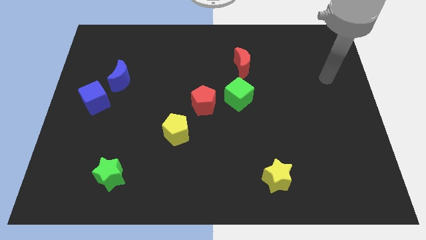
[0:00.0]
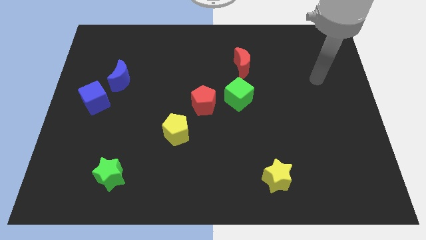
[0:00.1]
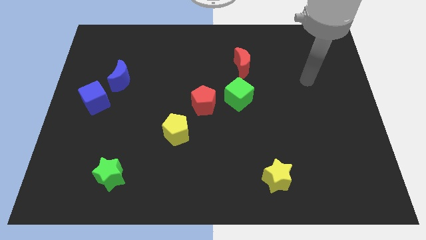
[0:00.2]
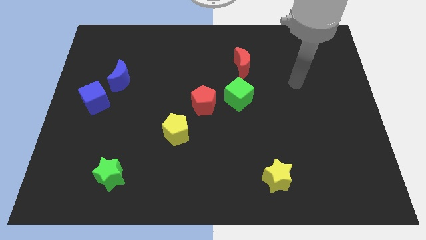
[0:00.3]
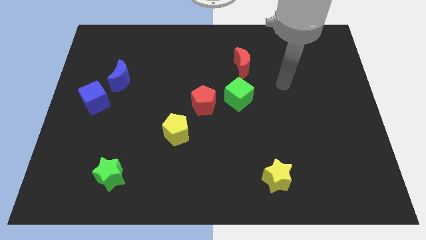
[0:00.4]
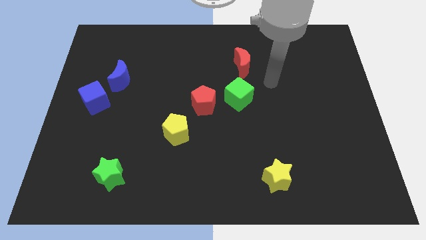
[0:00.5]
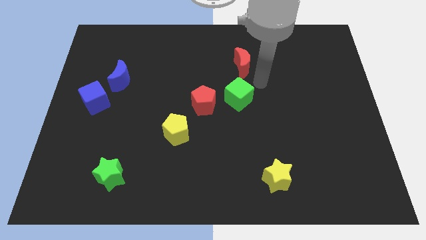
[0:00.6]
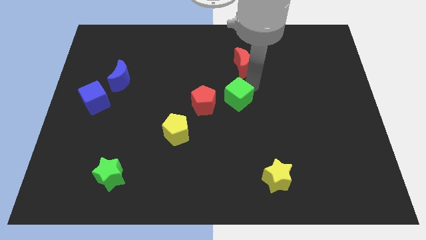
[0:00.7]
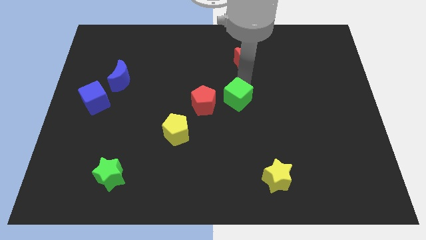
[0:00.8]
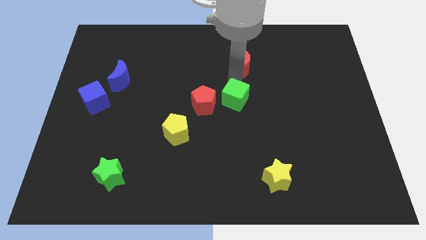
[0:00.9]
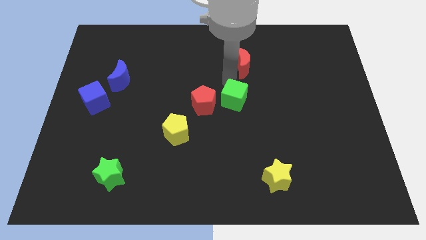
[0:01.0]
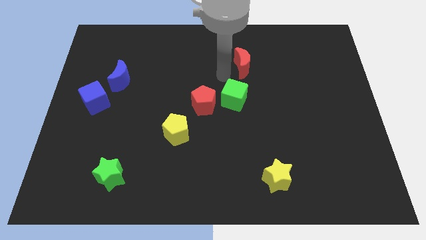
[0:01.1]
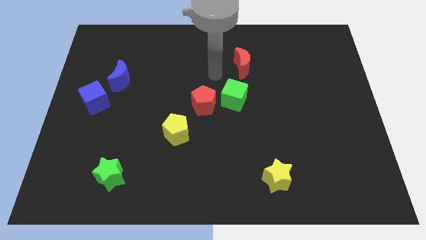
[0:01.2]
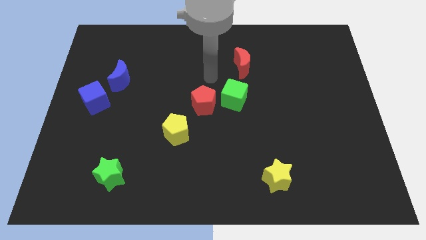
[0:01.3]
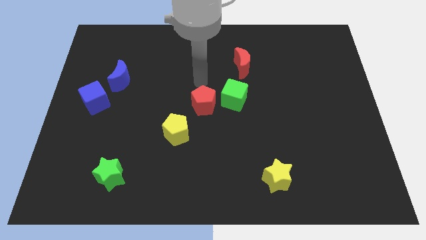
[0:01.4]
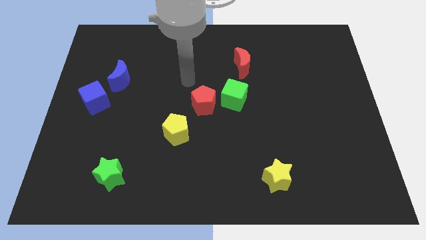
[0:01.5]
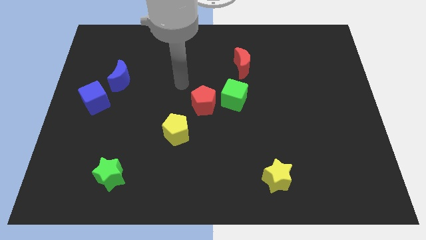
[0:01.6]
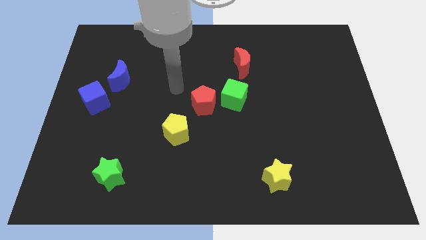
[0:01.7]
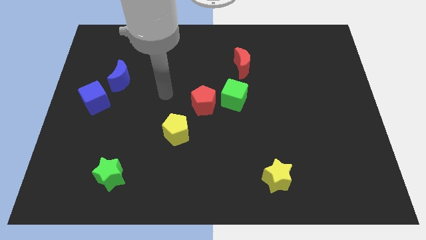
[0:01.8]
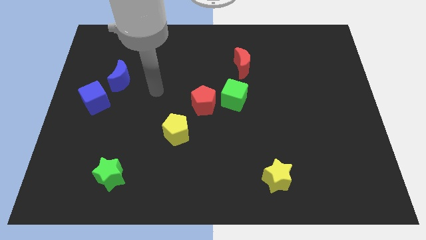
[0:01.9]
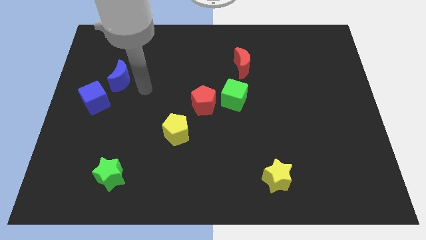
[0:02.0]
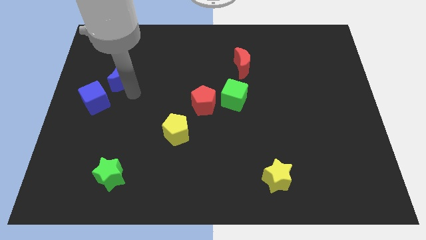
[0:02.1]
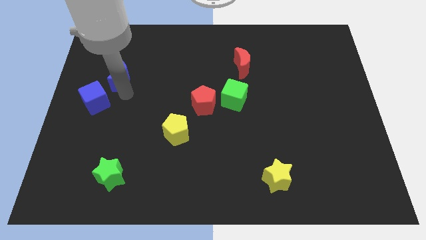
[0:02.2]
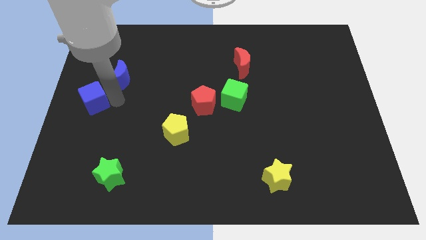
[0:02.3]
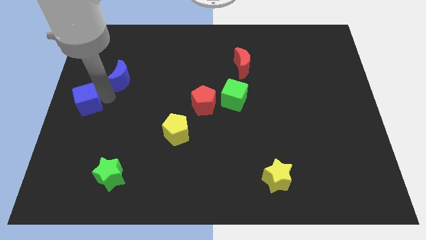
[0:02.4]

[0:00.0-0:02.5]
move the blue moon away from the blue cube

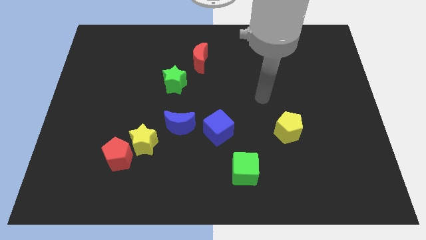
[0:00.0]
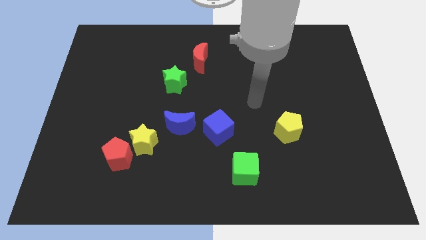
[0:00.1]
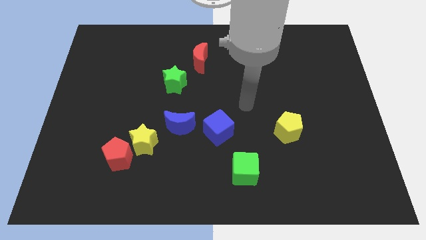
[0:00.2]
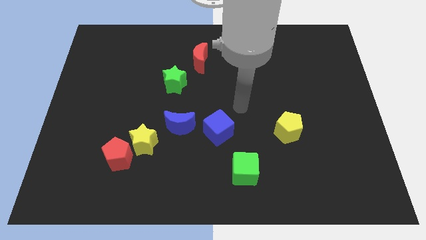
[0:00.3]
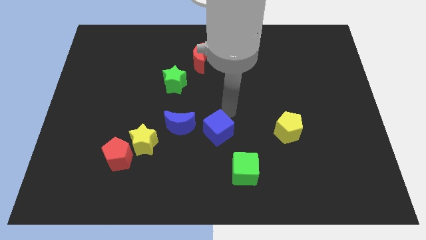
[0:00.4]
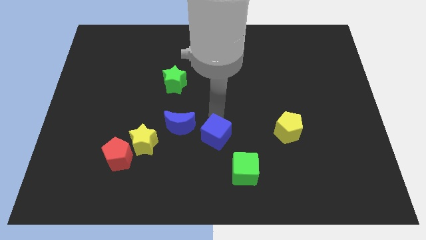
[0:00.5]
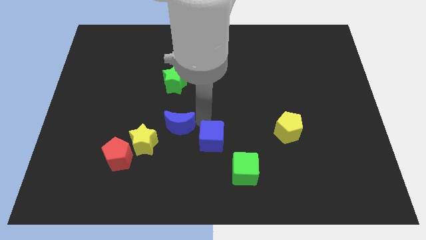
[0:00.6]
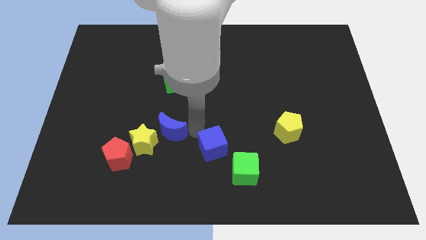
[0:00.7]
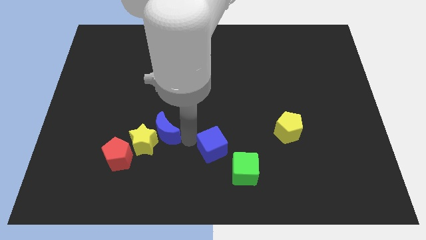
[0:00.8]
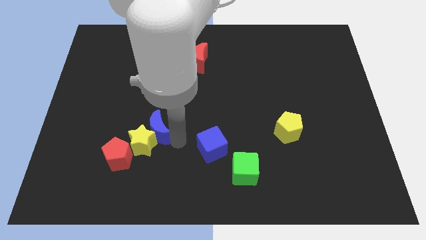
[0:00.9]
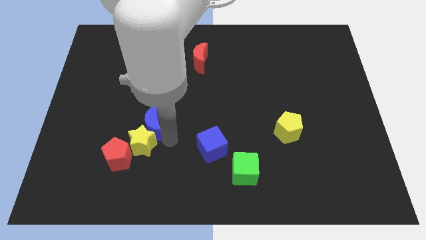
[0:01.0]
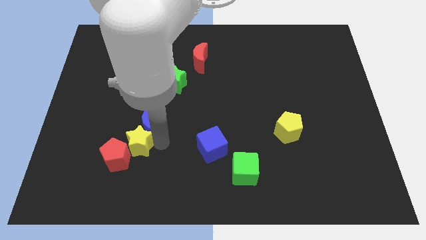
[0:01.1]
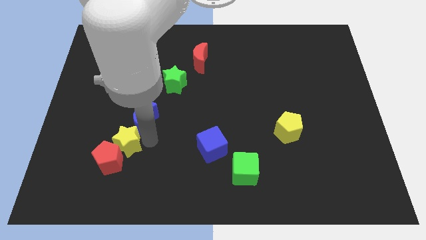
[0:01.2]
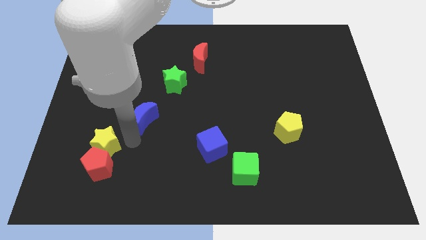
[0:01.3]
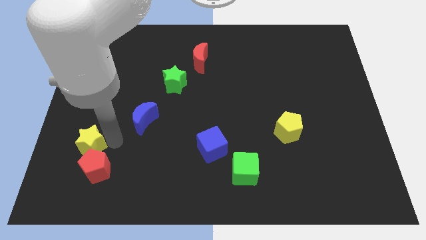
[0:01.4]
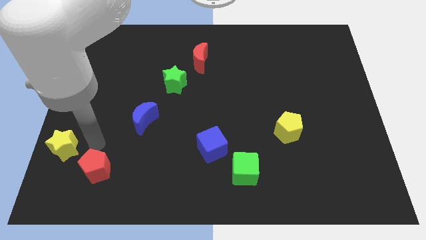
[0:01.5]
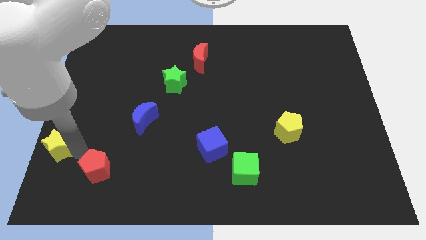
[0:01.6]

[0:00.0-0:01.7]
separate the red pentagon from the yellow star

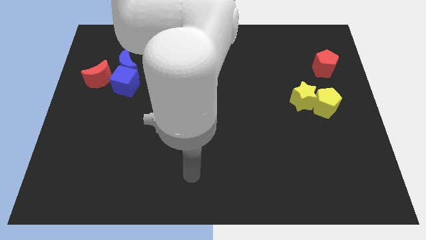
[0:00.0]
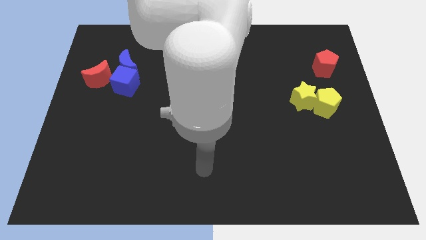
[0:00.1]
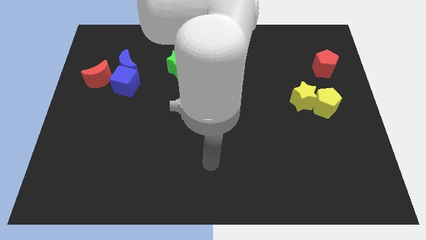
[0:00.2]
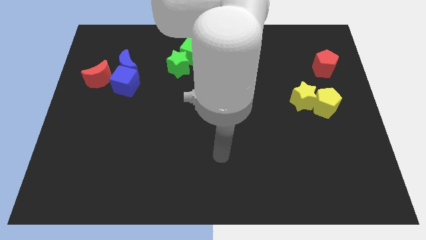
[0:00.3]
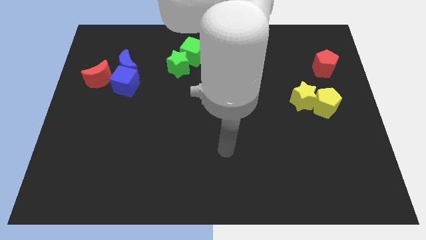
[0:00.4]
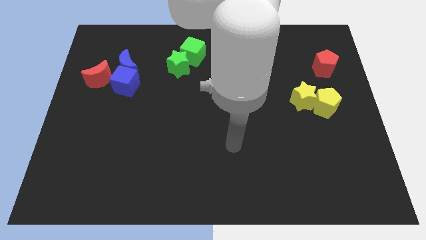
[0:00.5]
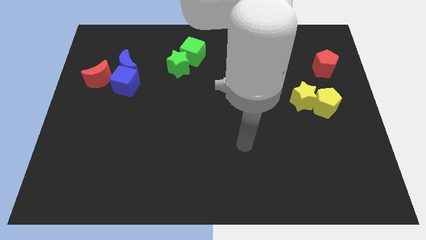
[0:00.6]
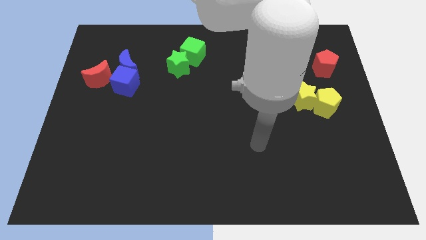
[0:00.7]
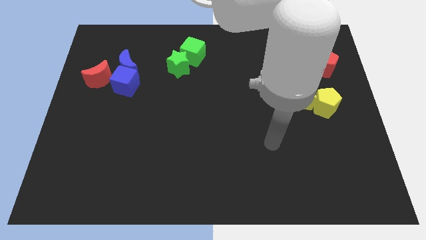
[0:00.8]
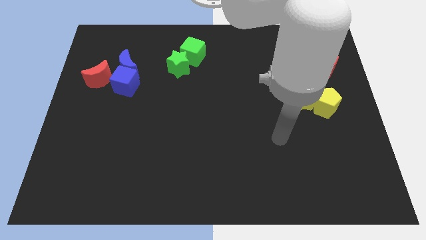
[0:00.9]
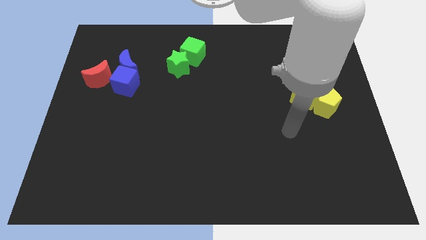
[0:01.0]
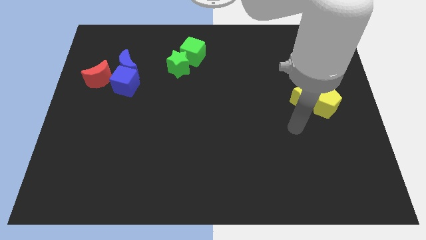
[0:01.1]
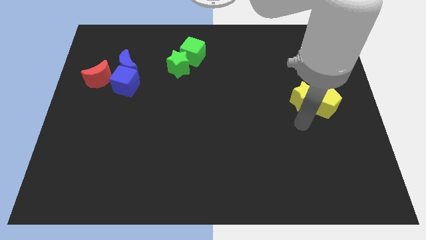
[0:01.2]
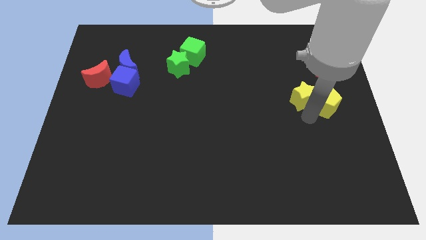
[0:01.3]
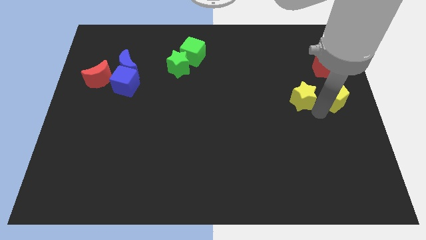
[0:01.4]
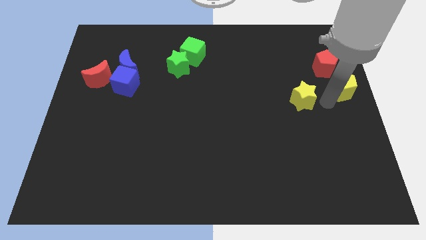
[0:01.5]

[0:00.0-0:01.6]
pull the yellow star apart from the yellow pentagon

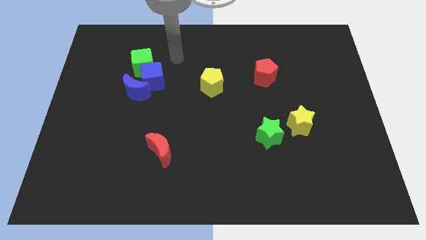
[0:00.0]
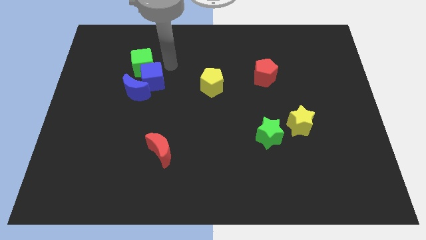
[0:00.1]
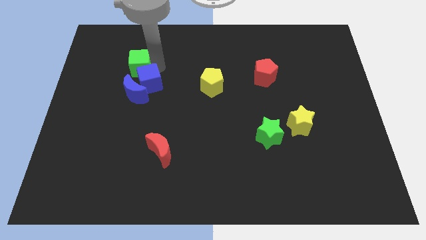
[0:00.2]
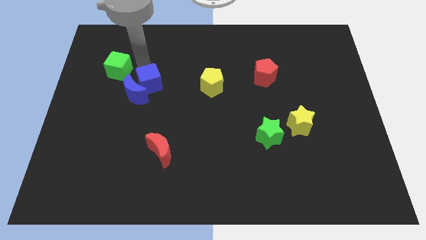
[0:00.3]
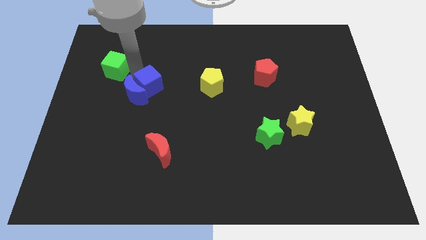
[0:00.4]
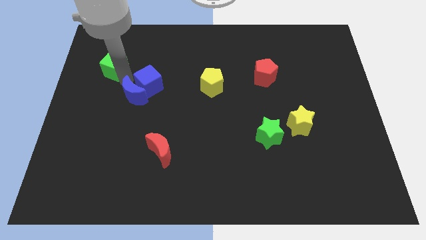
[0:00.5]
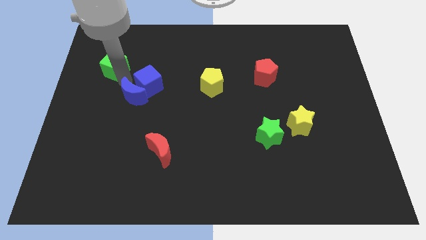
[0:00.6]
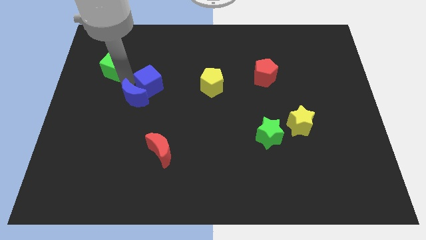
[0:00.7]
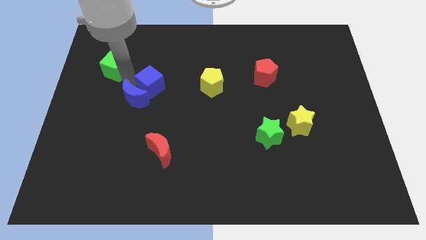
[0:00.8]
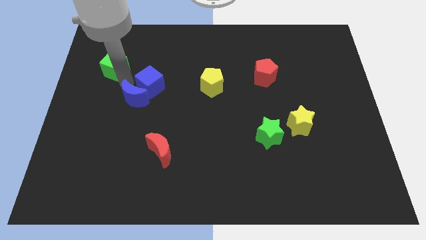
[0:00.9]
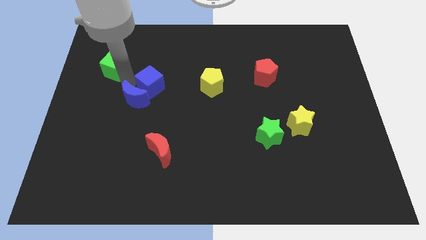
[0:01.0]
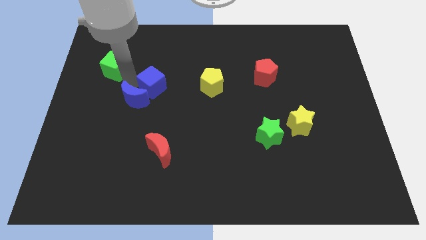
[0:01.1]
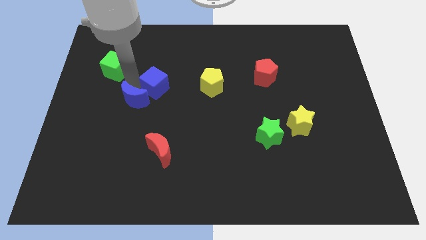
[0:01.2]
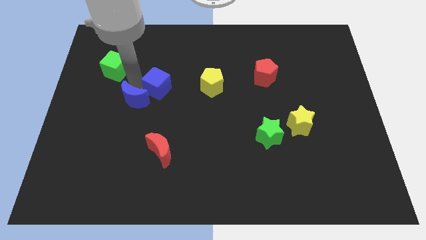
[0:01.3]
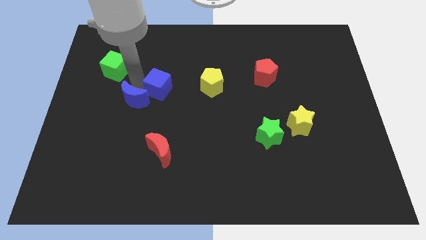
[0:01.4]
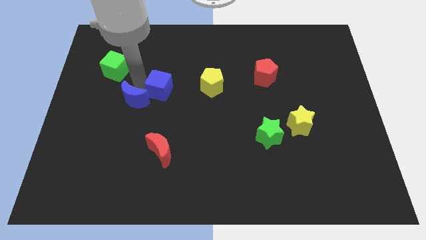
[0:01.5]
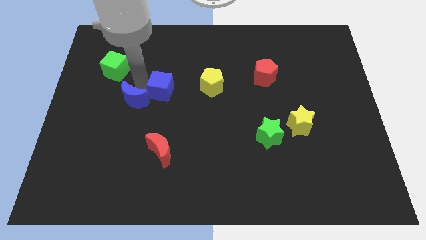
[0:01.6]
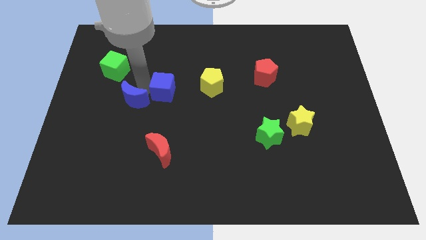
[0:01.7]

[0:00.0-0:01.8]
pull the blue cube apart from the blue moon and green cube

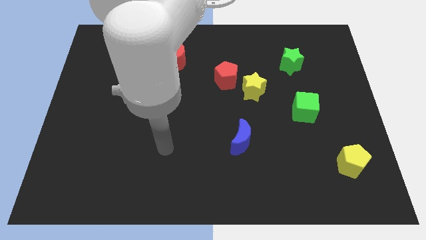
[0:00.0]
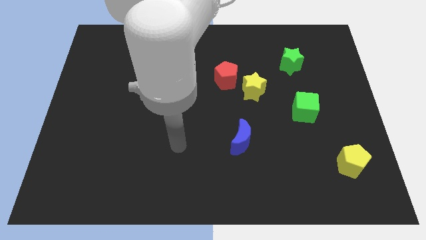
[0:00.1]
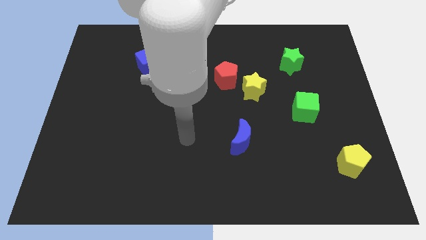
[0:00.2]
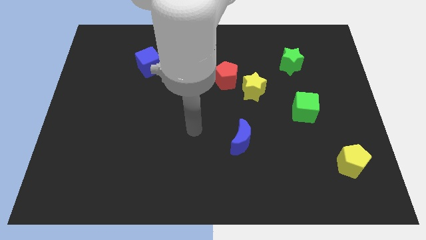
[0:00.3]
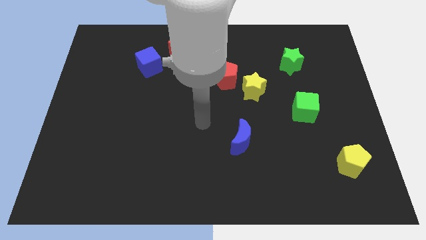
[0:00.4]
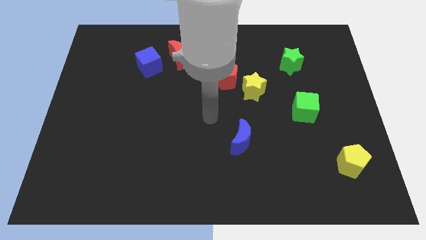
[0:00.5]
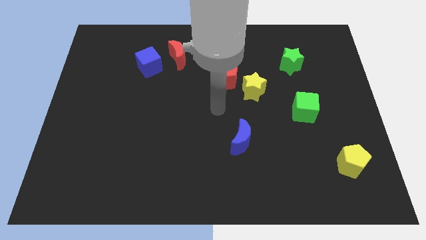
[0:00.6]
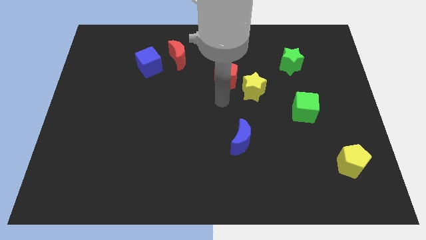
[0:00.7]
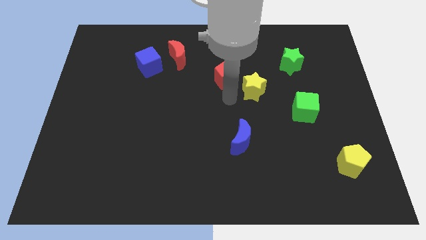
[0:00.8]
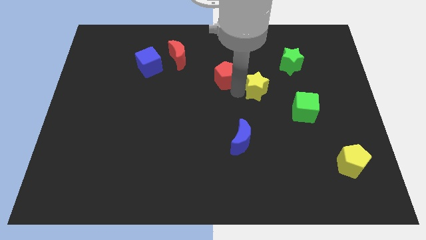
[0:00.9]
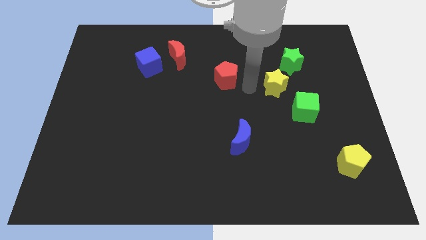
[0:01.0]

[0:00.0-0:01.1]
move the red pentagon away from the yellow star

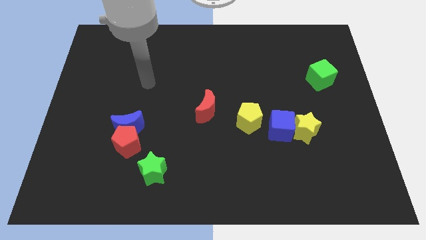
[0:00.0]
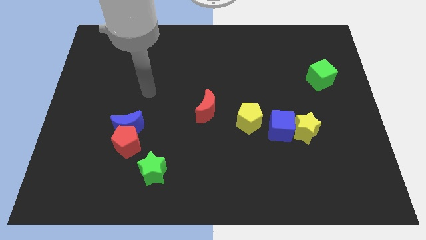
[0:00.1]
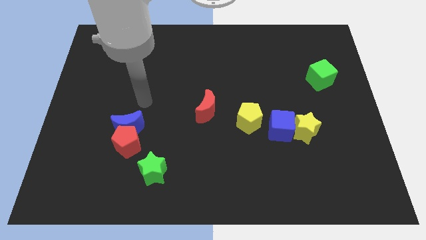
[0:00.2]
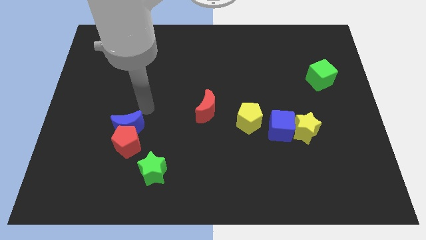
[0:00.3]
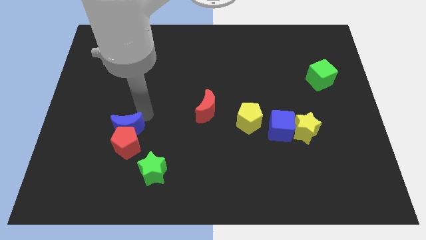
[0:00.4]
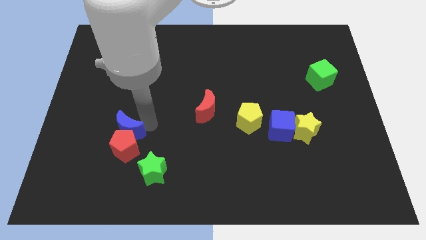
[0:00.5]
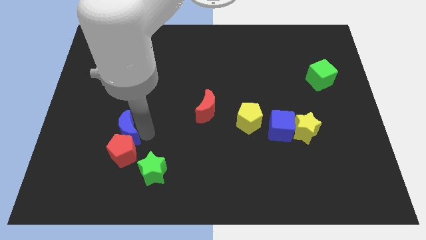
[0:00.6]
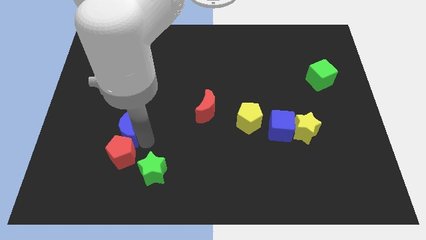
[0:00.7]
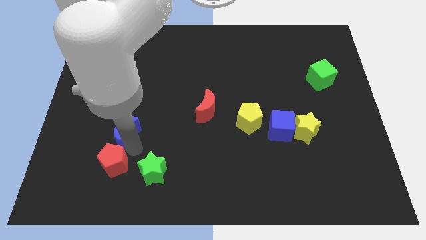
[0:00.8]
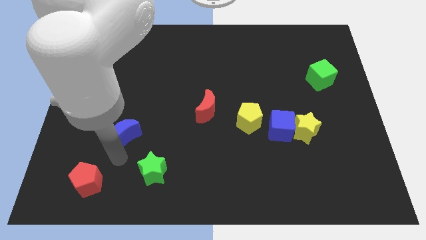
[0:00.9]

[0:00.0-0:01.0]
separate the blue moon from the red pentagon
